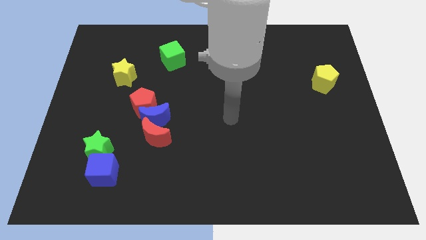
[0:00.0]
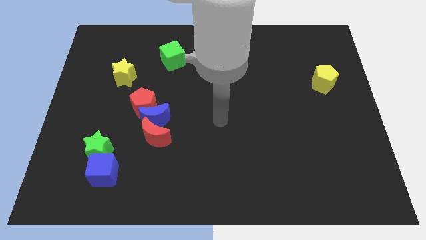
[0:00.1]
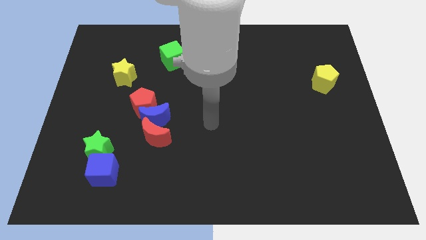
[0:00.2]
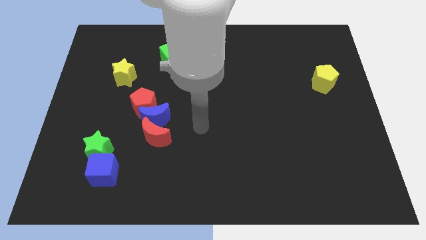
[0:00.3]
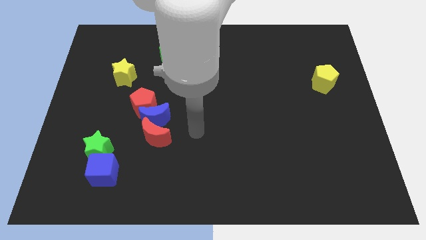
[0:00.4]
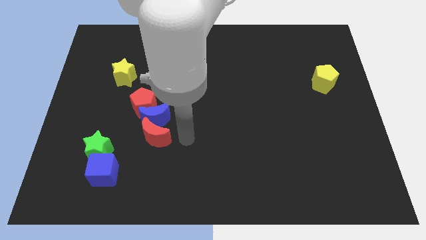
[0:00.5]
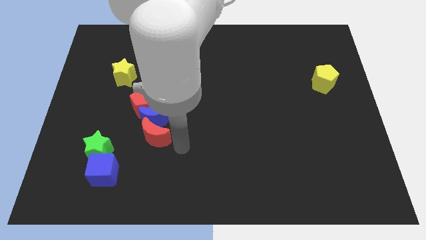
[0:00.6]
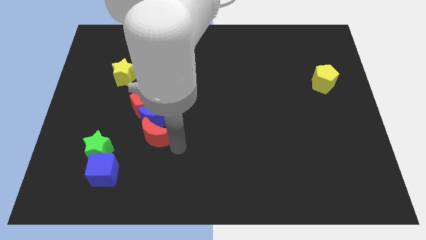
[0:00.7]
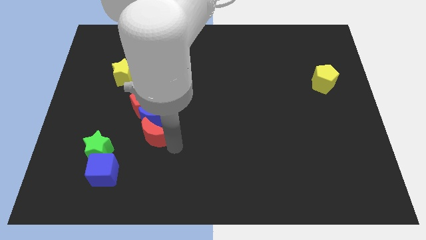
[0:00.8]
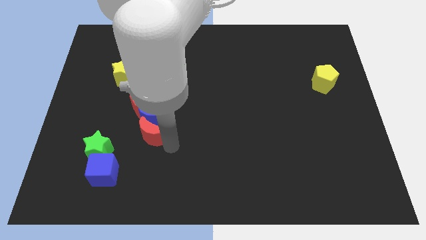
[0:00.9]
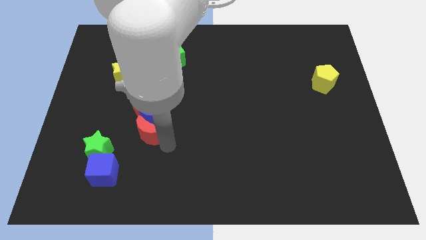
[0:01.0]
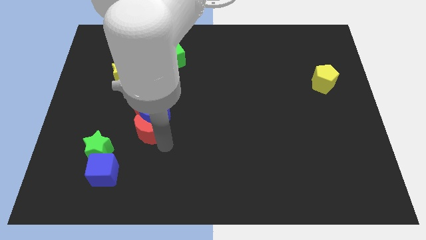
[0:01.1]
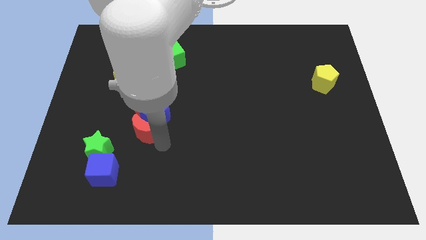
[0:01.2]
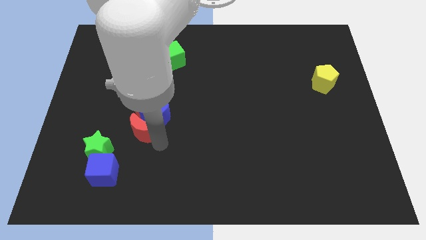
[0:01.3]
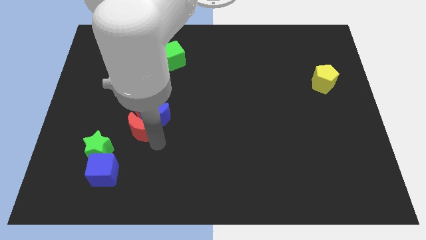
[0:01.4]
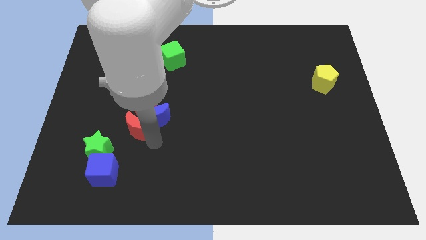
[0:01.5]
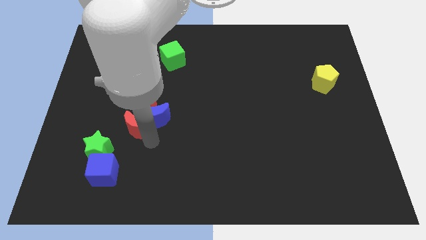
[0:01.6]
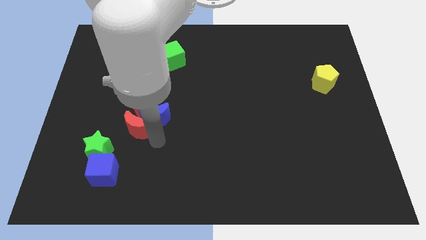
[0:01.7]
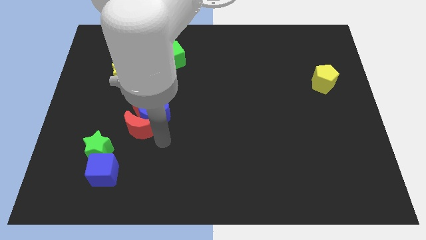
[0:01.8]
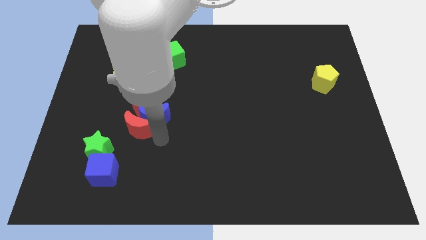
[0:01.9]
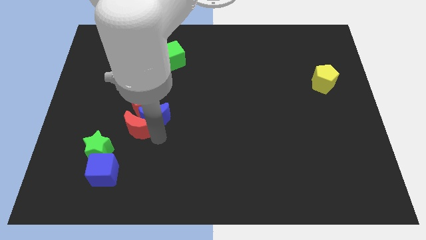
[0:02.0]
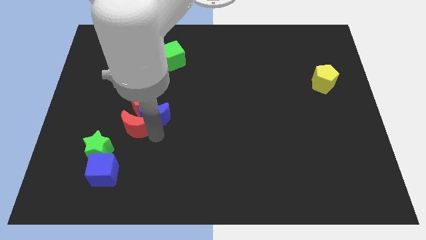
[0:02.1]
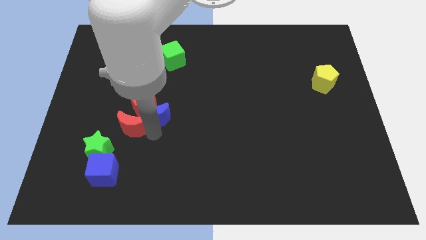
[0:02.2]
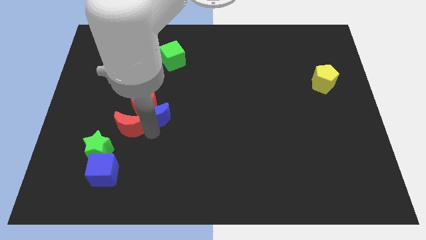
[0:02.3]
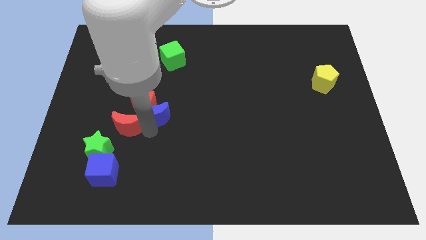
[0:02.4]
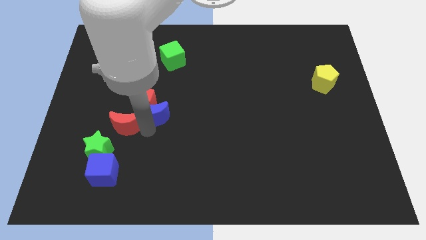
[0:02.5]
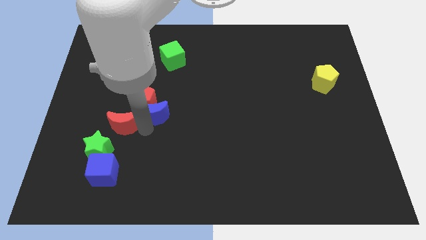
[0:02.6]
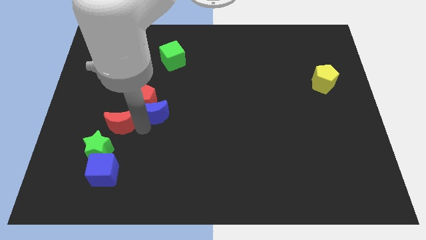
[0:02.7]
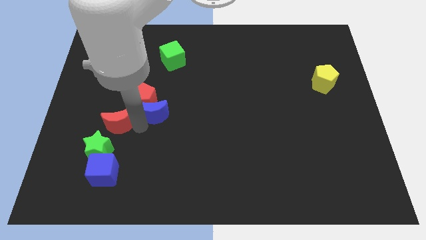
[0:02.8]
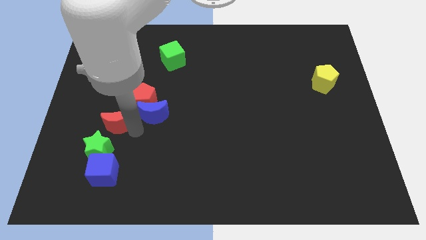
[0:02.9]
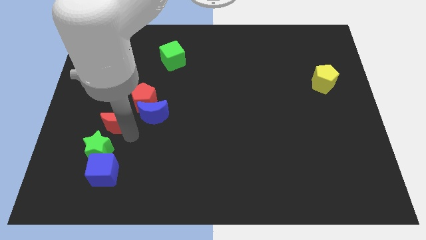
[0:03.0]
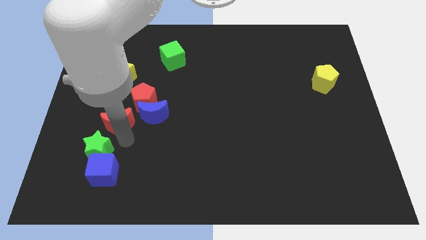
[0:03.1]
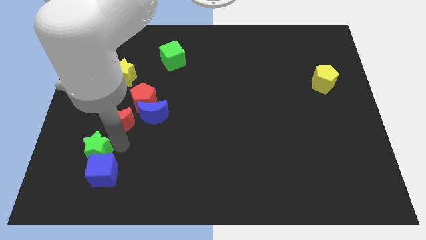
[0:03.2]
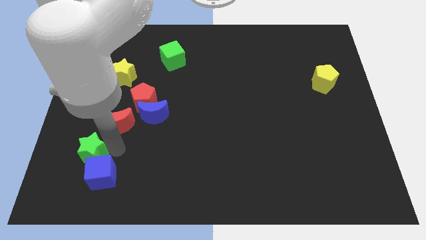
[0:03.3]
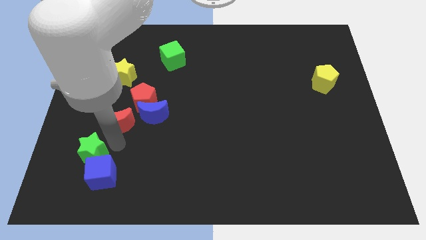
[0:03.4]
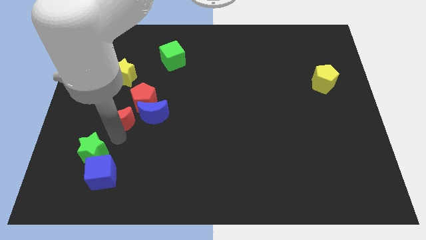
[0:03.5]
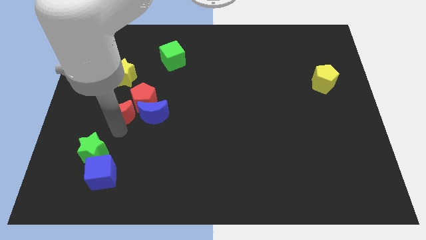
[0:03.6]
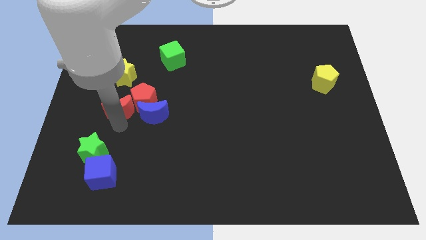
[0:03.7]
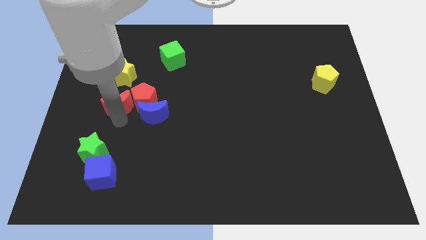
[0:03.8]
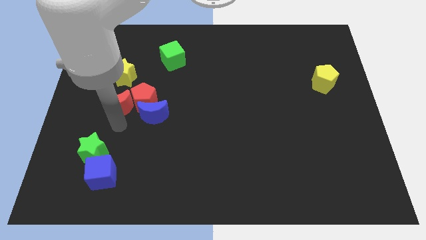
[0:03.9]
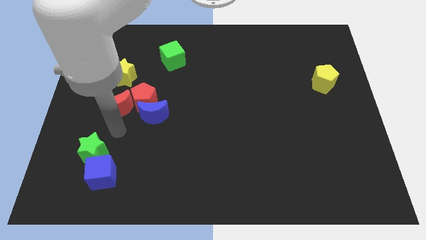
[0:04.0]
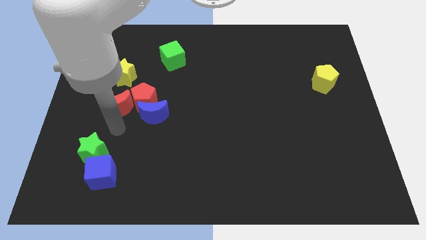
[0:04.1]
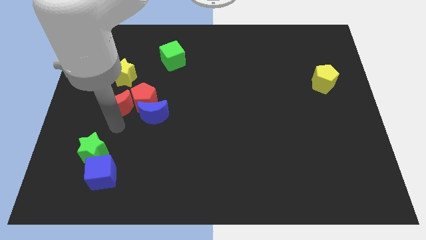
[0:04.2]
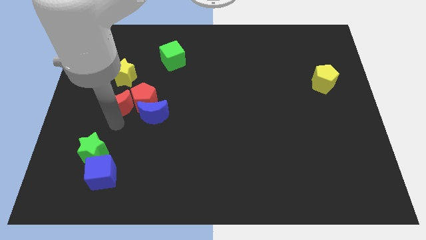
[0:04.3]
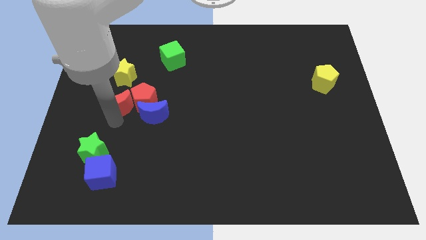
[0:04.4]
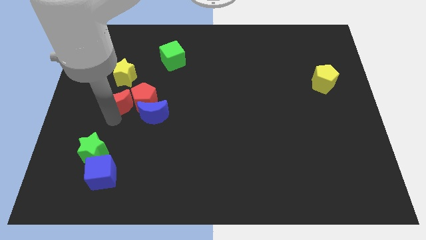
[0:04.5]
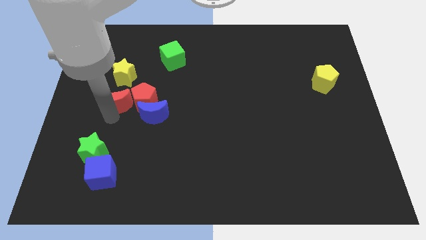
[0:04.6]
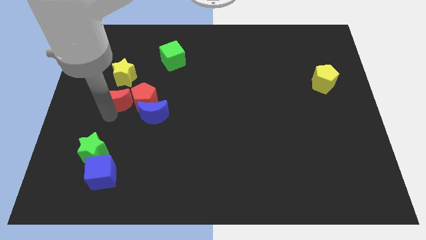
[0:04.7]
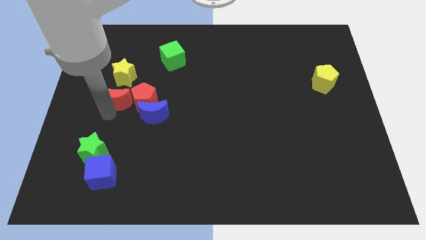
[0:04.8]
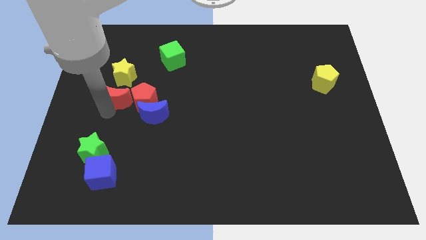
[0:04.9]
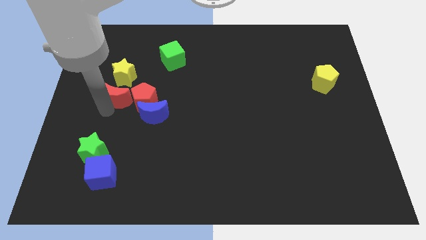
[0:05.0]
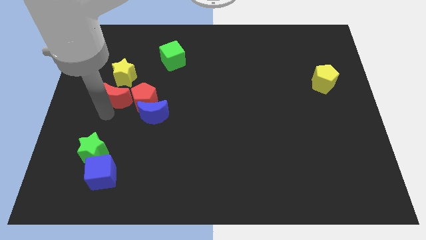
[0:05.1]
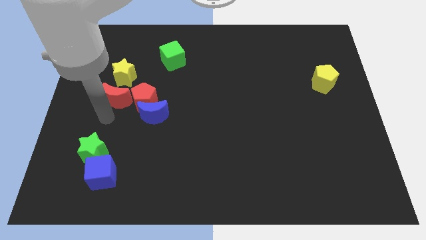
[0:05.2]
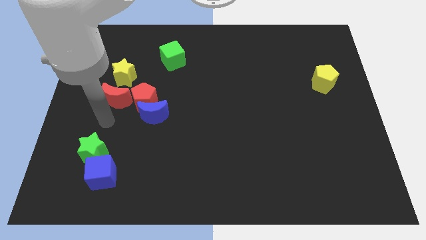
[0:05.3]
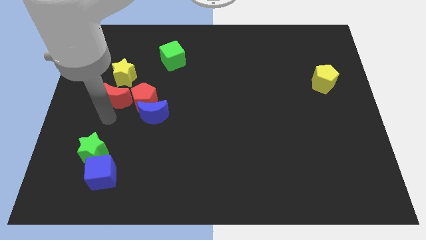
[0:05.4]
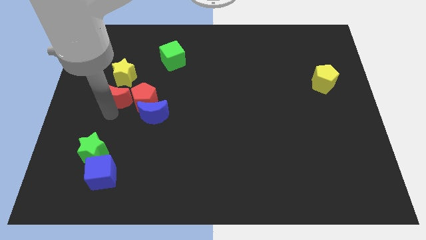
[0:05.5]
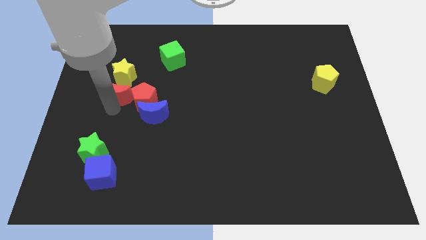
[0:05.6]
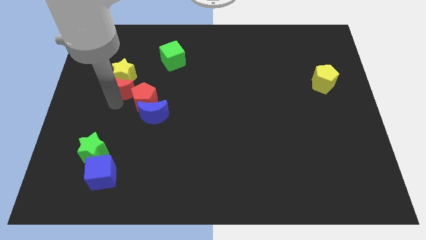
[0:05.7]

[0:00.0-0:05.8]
slide the red moon towards the yellow star

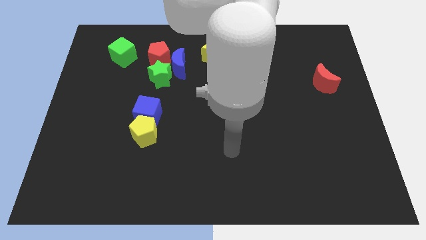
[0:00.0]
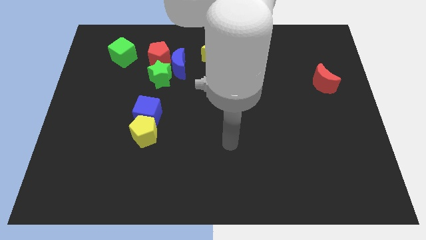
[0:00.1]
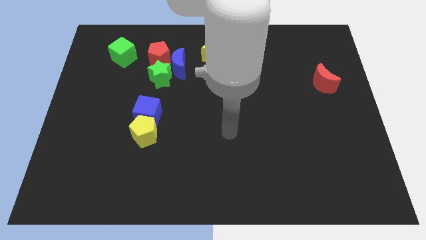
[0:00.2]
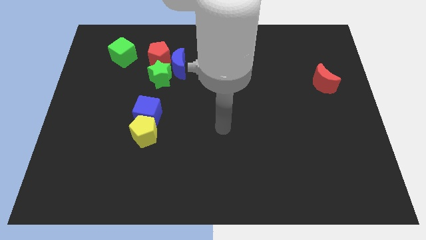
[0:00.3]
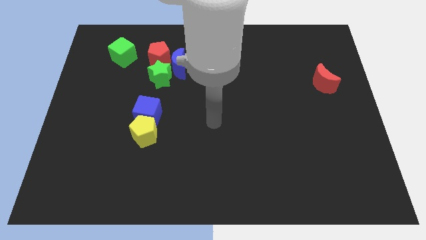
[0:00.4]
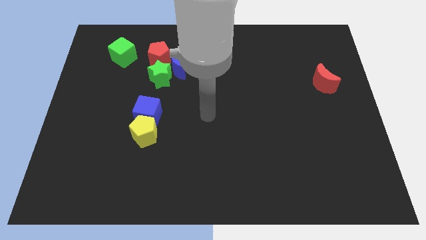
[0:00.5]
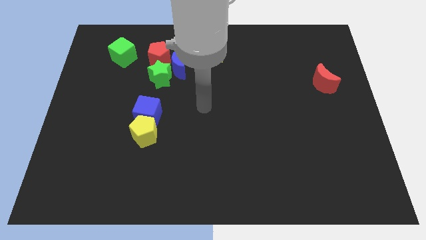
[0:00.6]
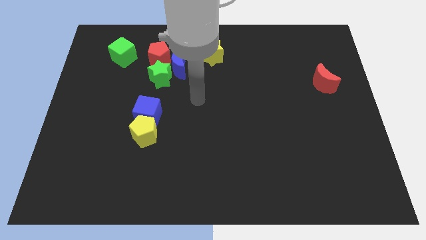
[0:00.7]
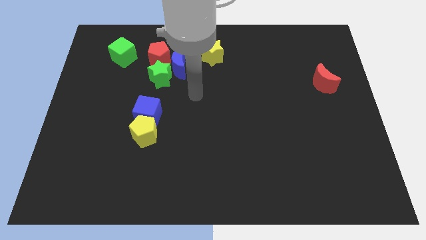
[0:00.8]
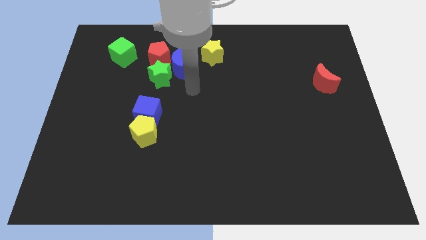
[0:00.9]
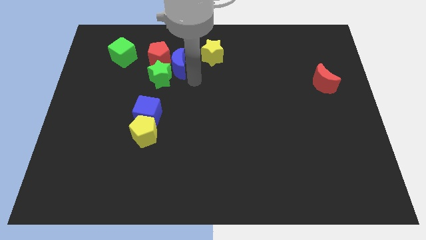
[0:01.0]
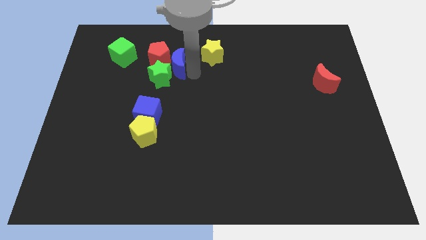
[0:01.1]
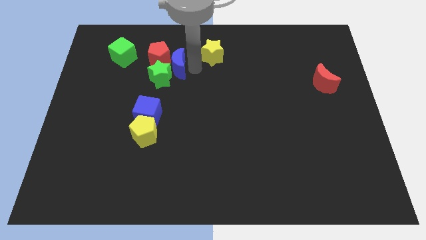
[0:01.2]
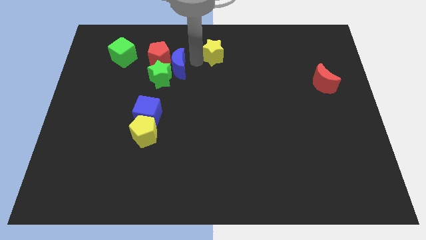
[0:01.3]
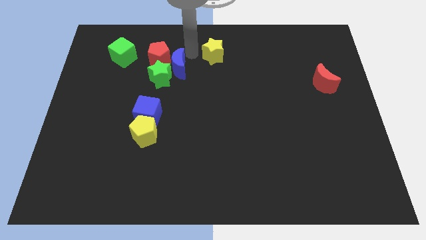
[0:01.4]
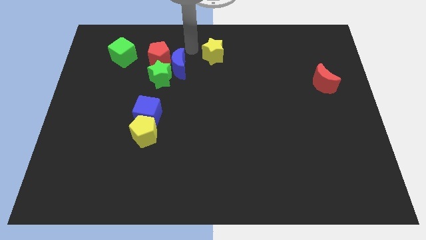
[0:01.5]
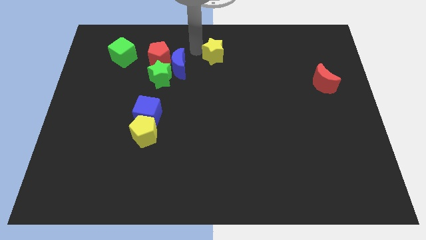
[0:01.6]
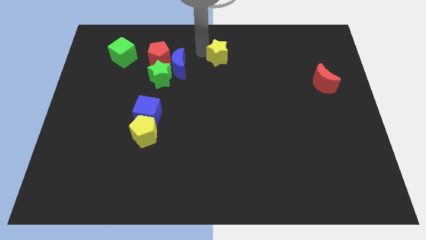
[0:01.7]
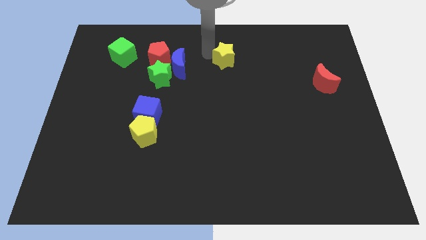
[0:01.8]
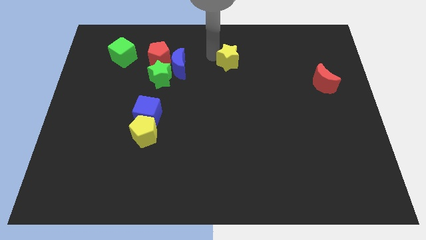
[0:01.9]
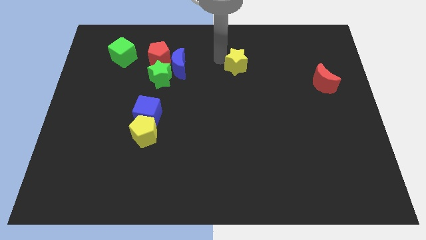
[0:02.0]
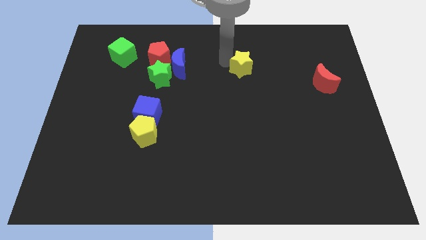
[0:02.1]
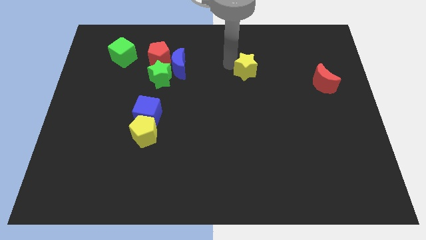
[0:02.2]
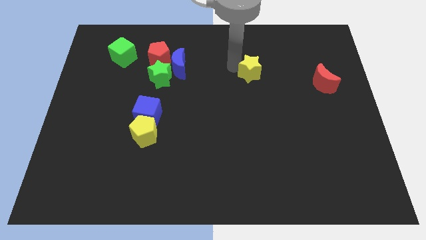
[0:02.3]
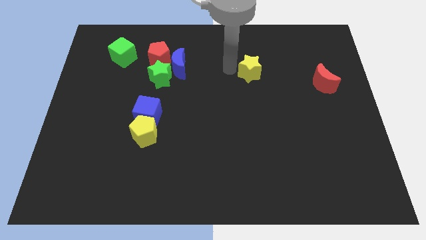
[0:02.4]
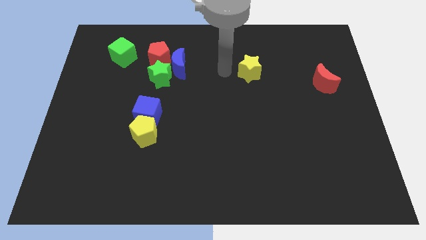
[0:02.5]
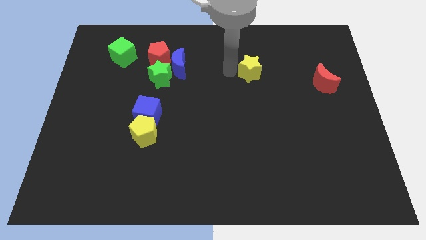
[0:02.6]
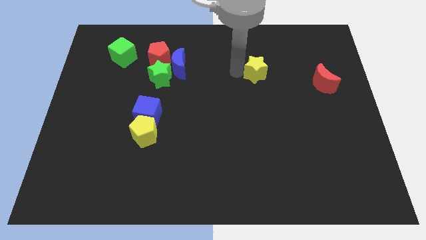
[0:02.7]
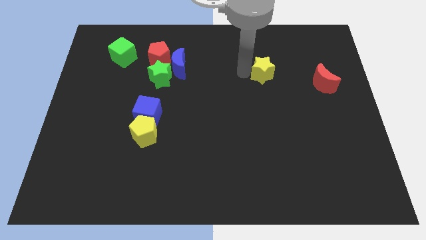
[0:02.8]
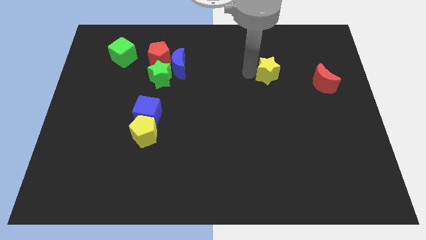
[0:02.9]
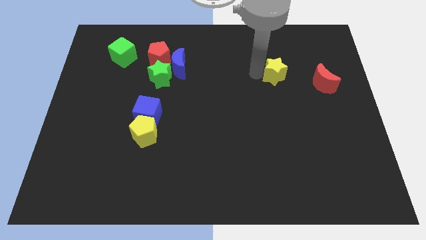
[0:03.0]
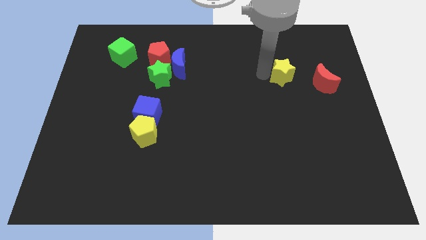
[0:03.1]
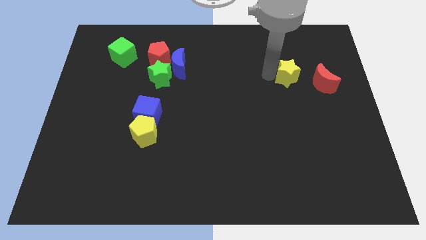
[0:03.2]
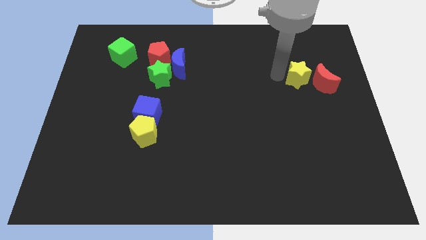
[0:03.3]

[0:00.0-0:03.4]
slide the yellow star close to the red moon
